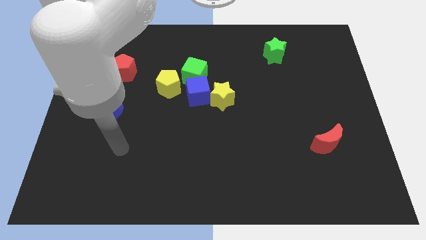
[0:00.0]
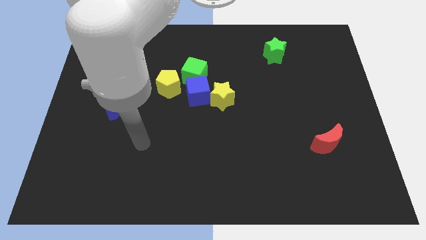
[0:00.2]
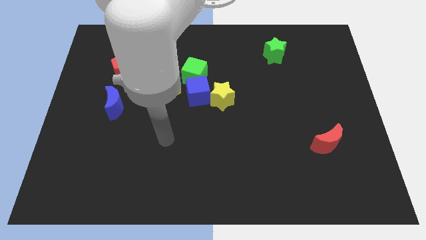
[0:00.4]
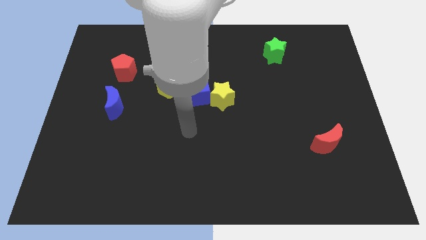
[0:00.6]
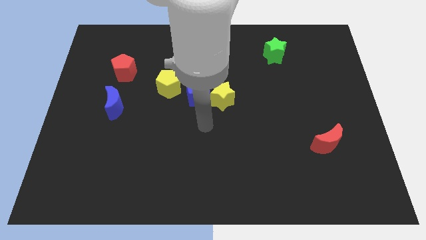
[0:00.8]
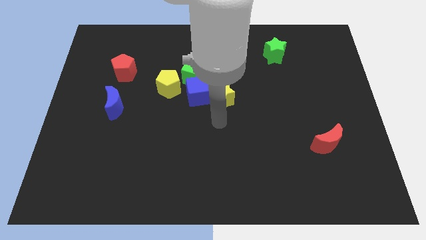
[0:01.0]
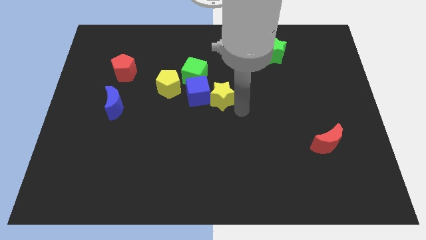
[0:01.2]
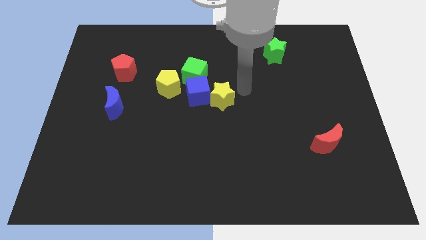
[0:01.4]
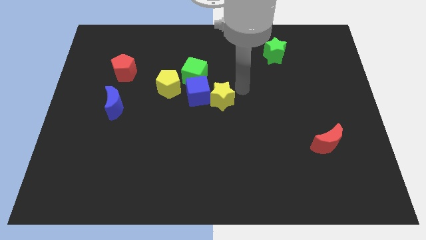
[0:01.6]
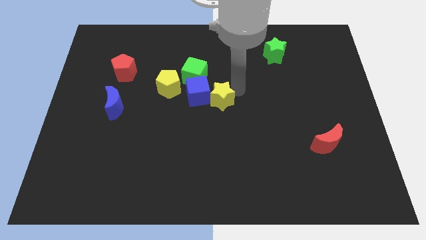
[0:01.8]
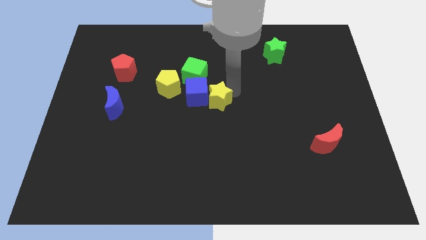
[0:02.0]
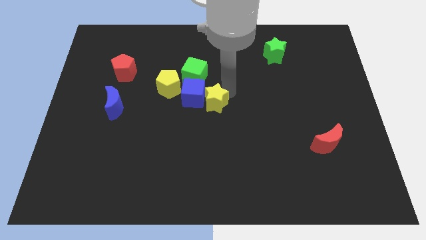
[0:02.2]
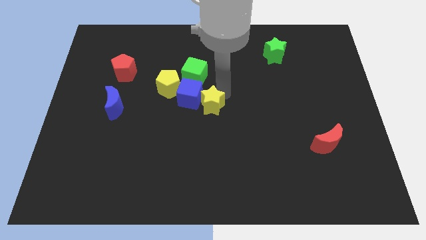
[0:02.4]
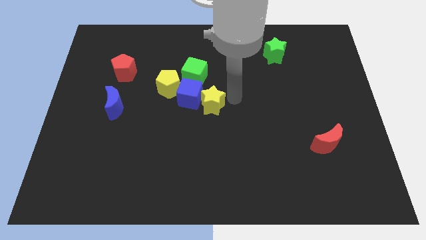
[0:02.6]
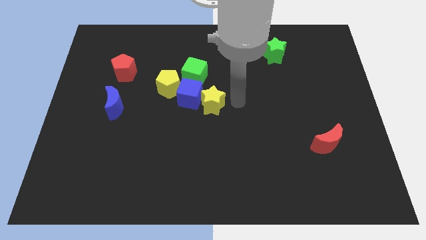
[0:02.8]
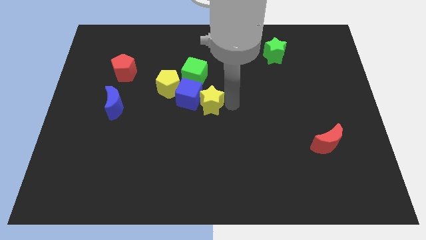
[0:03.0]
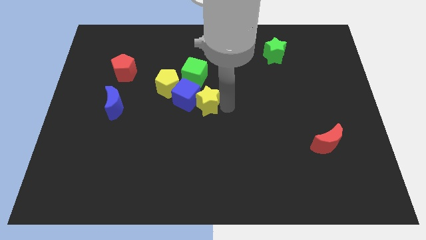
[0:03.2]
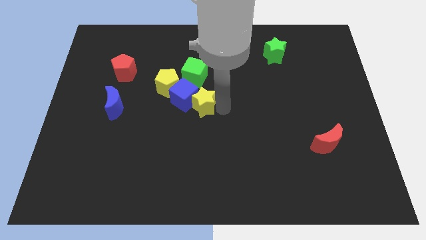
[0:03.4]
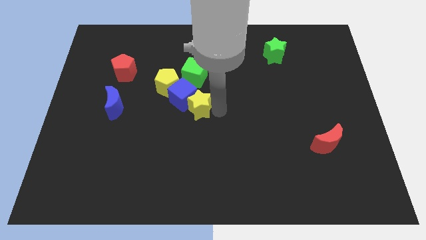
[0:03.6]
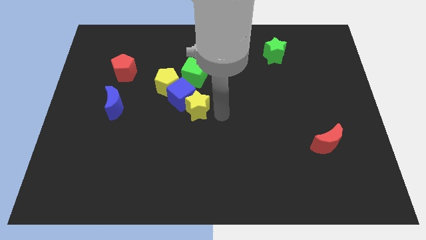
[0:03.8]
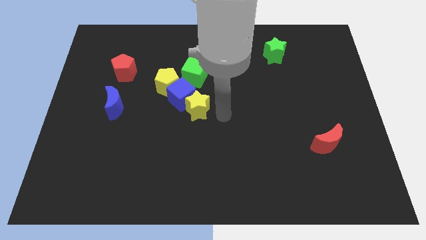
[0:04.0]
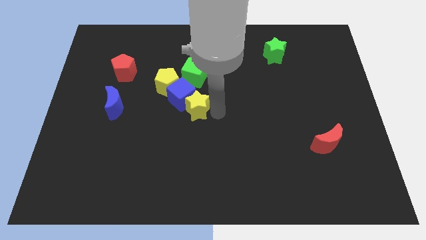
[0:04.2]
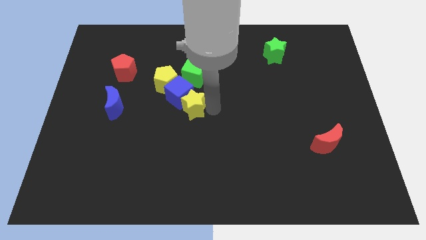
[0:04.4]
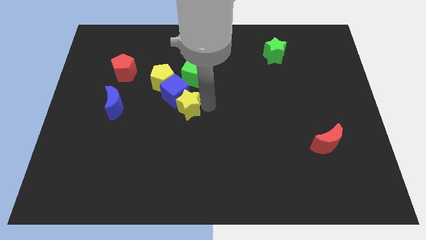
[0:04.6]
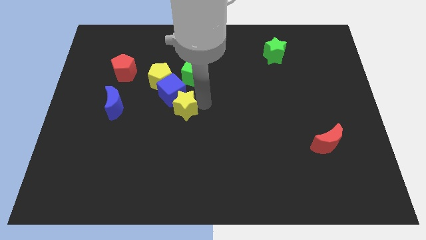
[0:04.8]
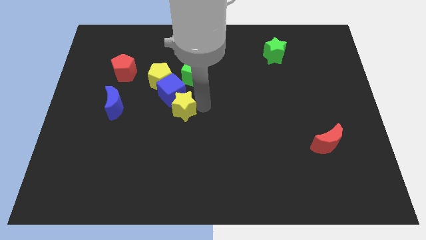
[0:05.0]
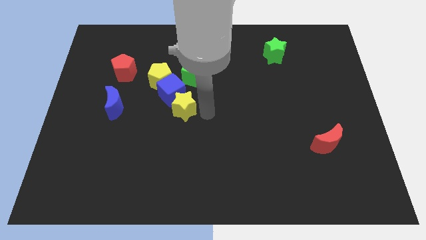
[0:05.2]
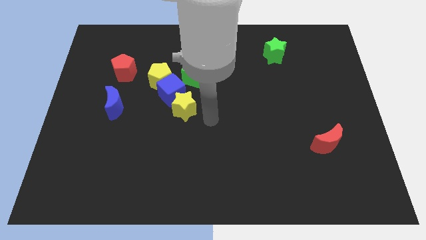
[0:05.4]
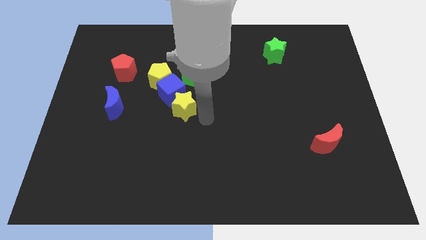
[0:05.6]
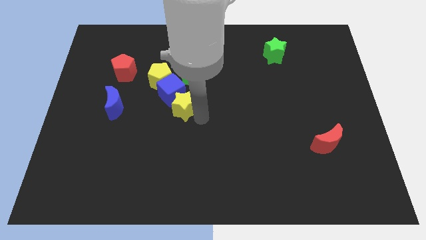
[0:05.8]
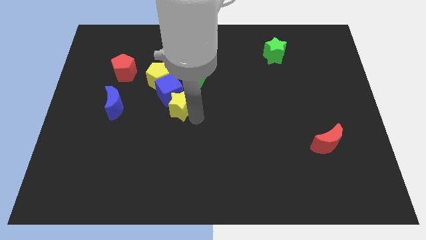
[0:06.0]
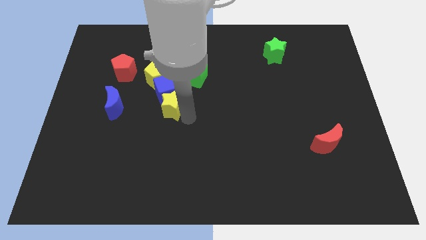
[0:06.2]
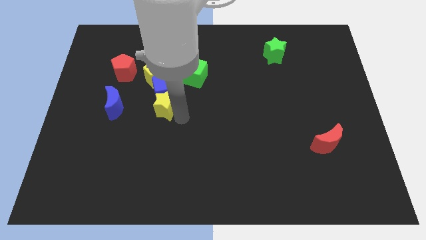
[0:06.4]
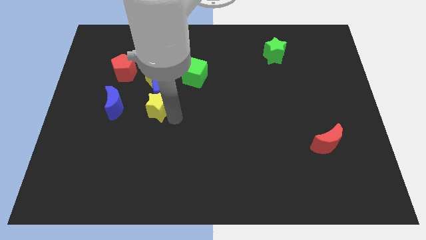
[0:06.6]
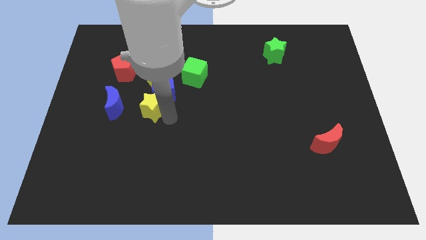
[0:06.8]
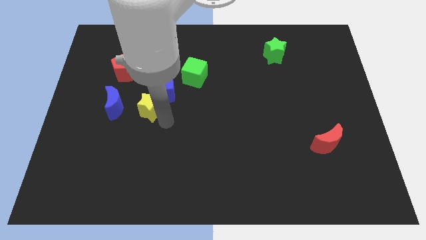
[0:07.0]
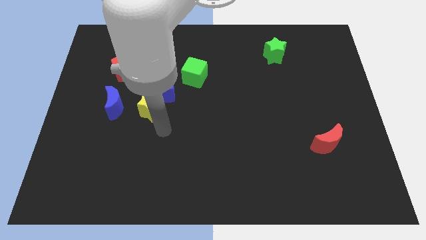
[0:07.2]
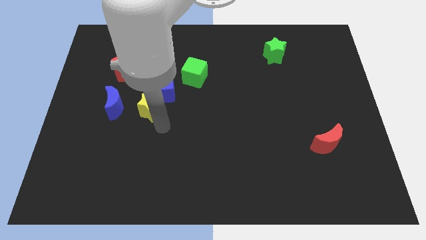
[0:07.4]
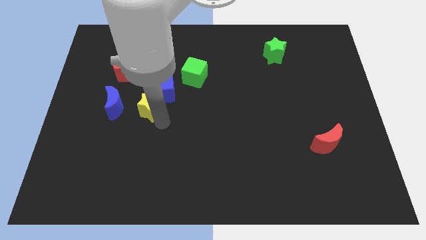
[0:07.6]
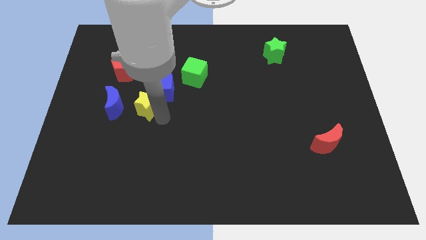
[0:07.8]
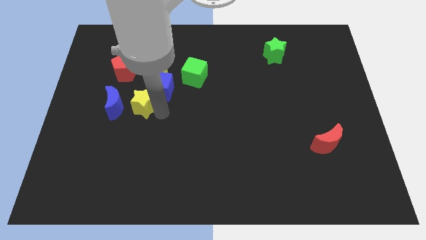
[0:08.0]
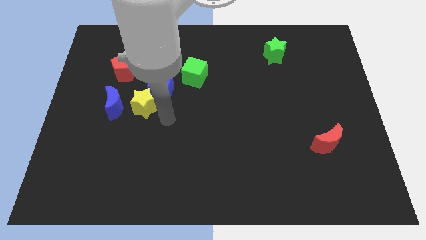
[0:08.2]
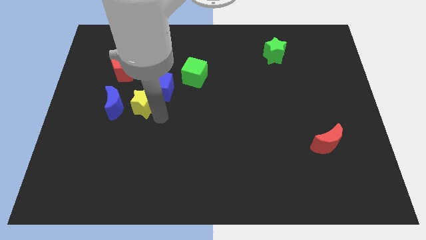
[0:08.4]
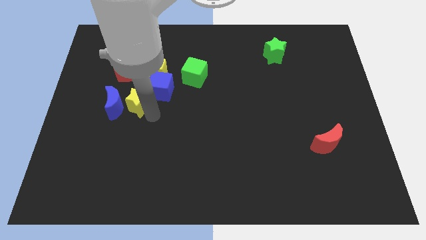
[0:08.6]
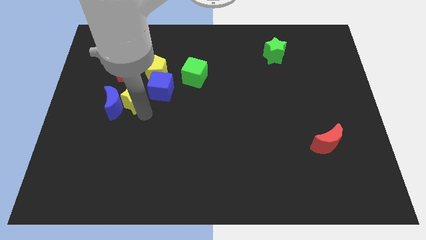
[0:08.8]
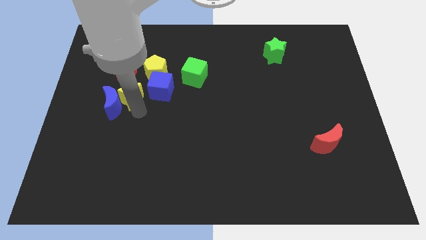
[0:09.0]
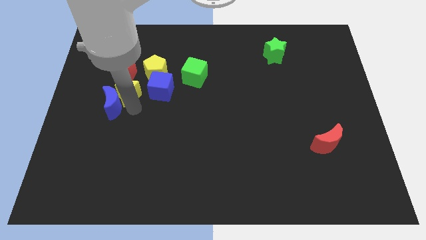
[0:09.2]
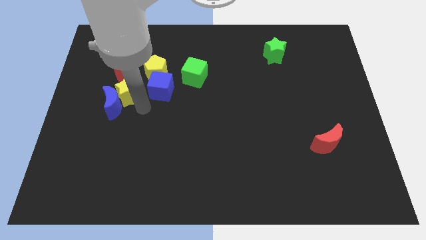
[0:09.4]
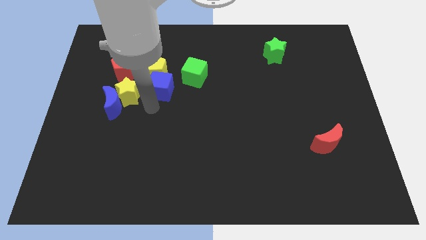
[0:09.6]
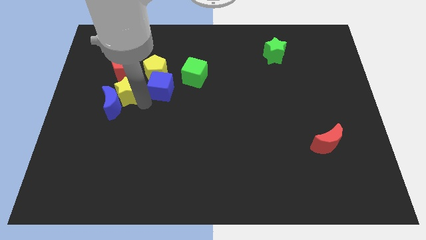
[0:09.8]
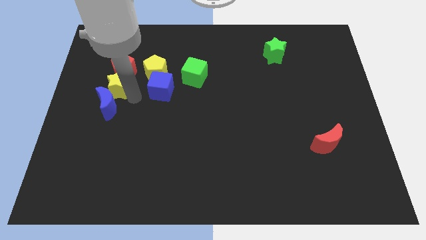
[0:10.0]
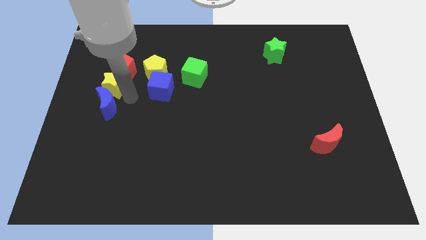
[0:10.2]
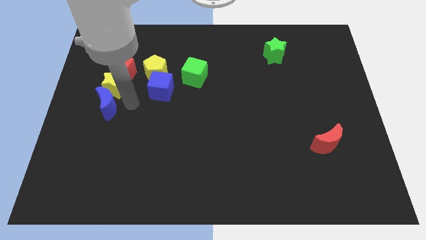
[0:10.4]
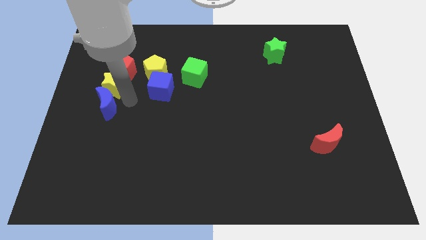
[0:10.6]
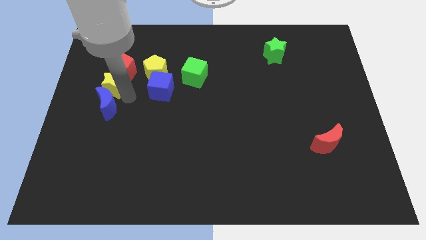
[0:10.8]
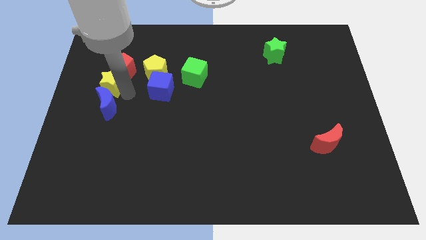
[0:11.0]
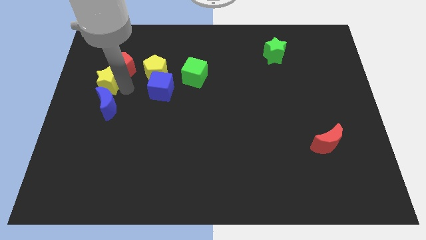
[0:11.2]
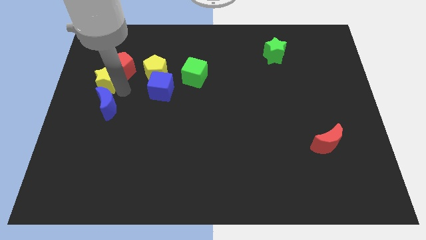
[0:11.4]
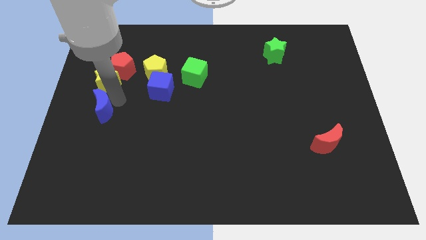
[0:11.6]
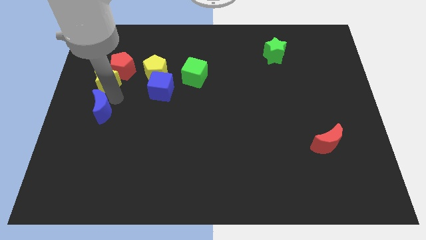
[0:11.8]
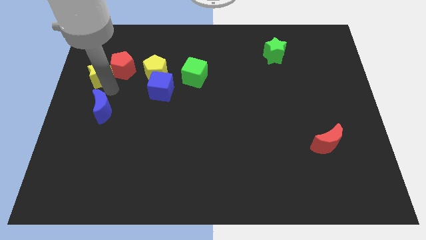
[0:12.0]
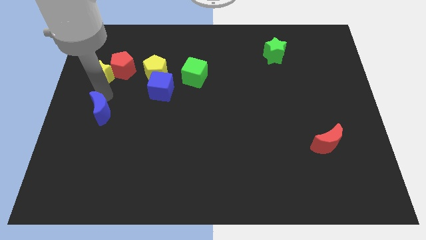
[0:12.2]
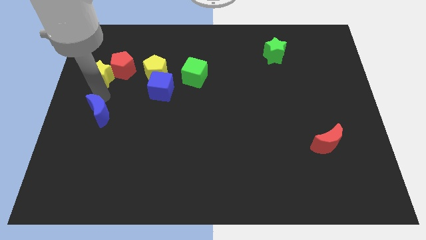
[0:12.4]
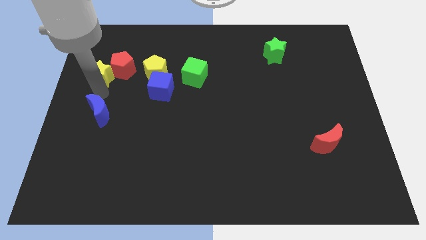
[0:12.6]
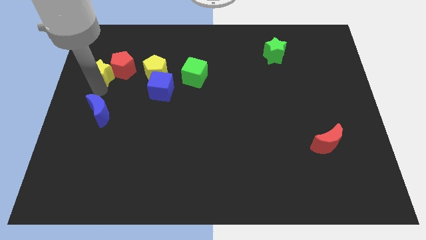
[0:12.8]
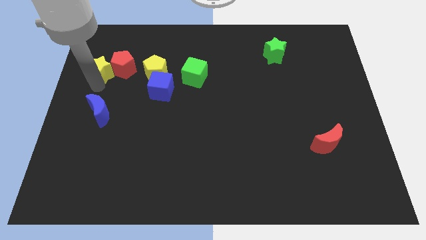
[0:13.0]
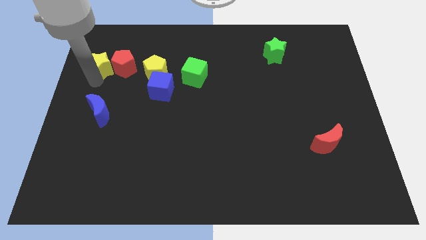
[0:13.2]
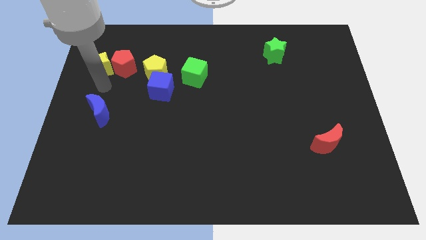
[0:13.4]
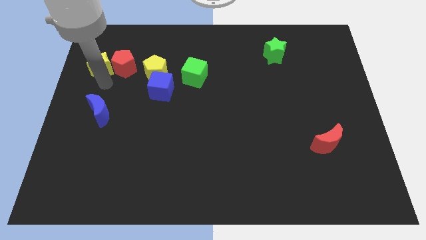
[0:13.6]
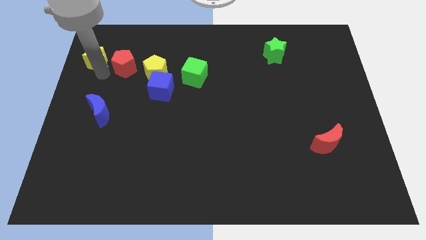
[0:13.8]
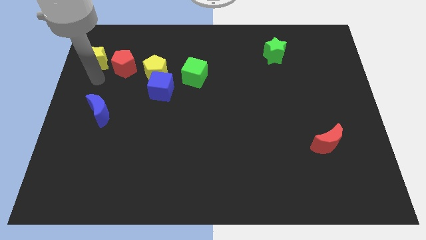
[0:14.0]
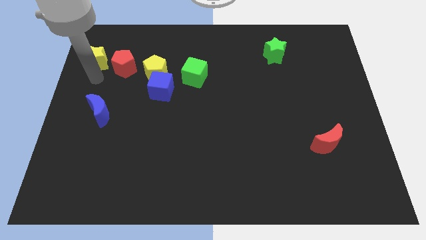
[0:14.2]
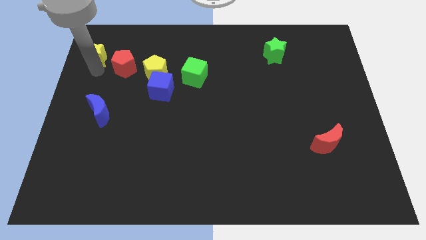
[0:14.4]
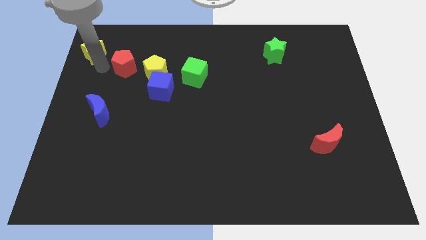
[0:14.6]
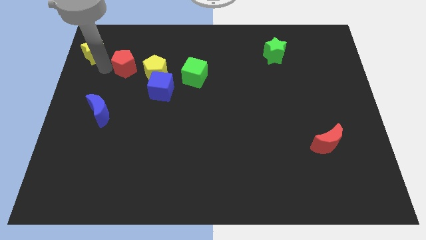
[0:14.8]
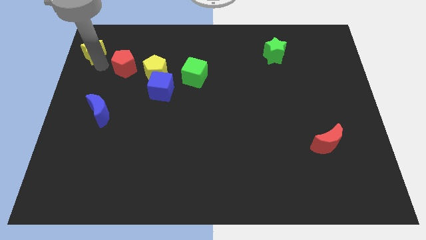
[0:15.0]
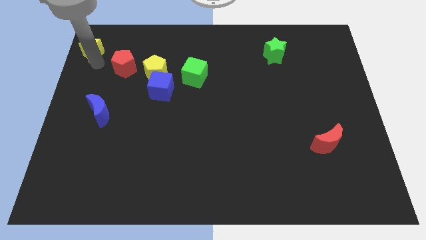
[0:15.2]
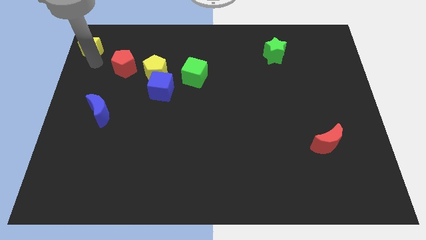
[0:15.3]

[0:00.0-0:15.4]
move the yellow star to the top left corner
